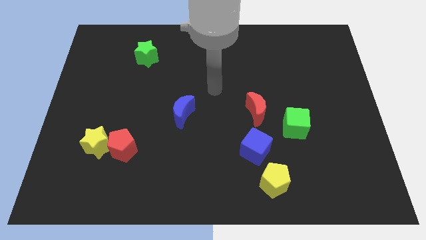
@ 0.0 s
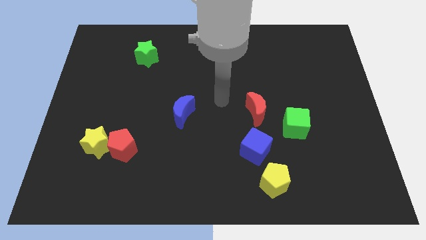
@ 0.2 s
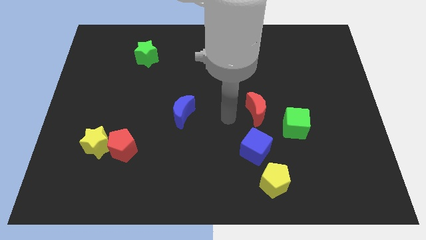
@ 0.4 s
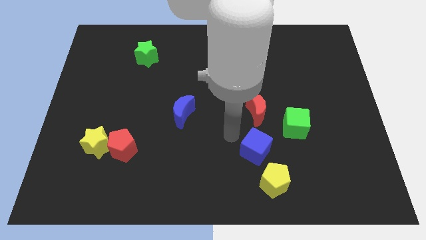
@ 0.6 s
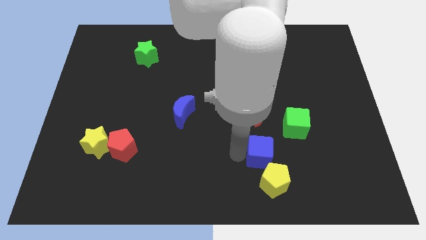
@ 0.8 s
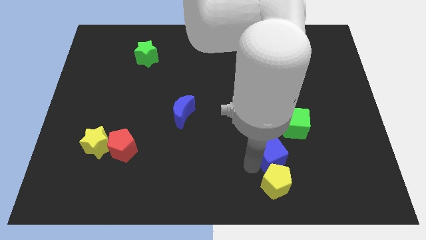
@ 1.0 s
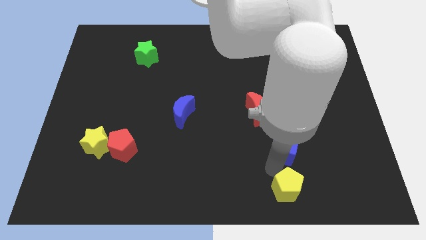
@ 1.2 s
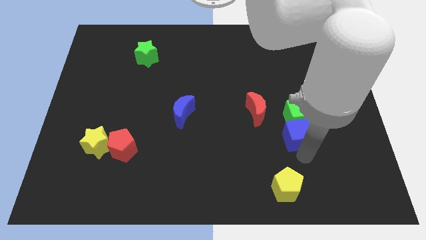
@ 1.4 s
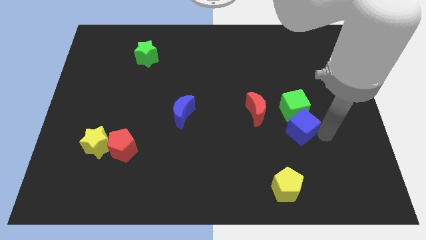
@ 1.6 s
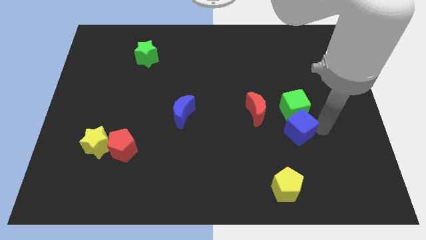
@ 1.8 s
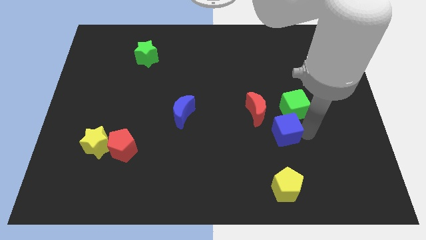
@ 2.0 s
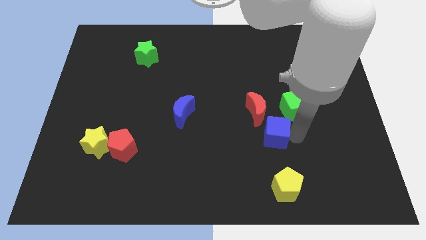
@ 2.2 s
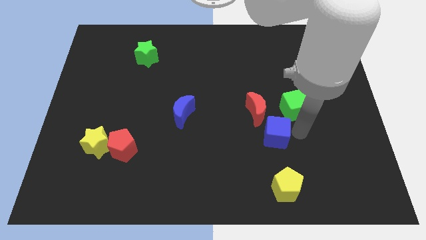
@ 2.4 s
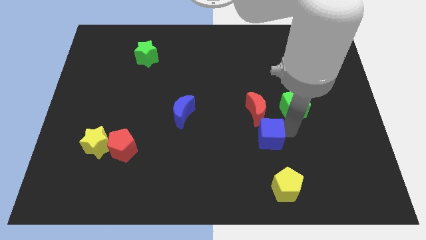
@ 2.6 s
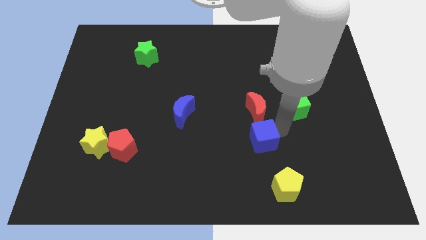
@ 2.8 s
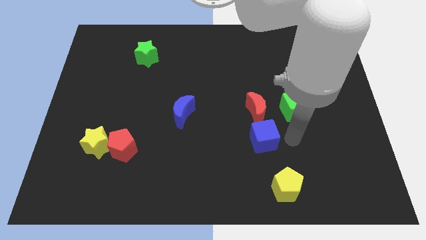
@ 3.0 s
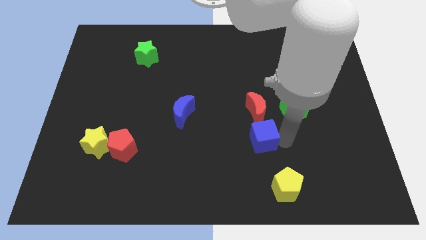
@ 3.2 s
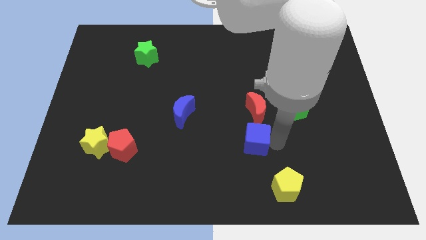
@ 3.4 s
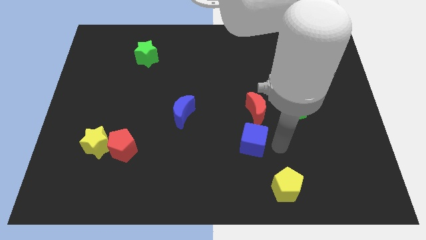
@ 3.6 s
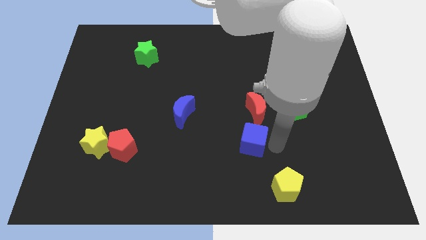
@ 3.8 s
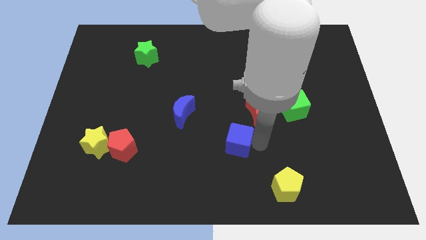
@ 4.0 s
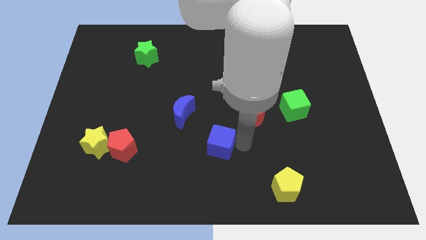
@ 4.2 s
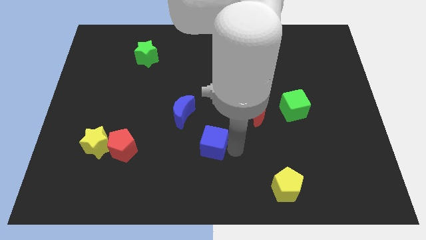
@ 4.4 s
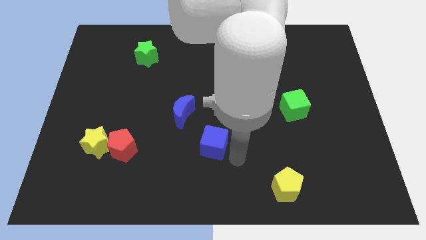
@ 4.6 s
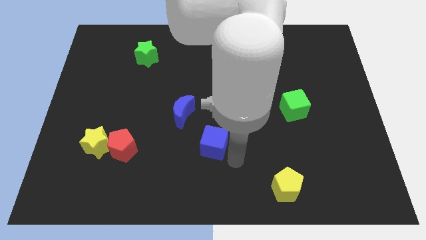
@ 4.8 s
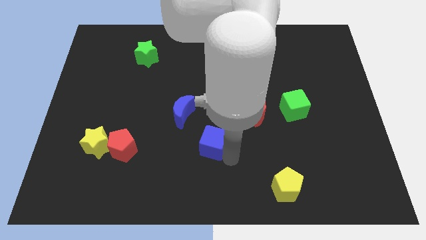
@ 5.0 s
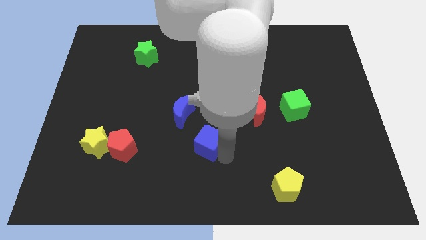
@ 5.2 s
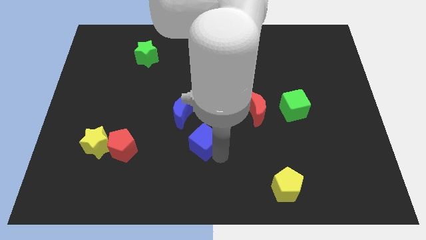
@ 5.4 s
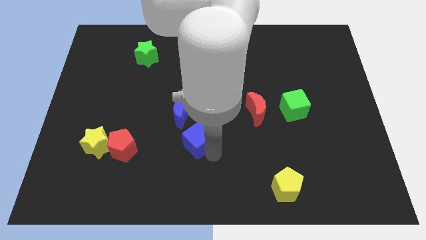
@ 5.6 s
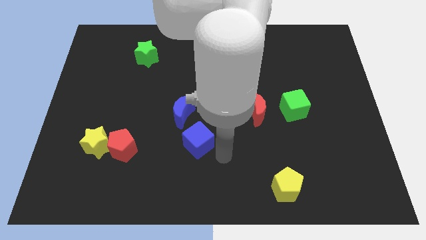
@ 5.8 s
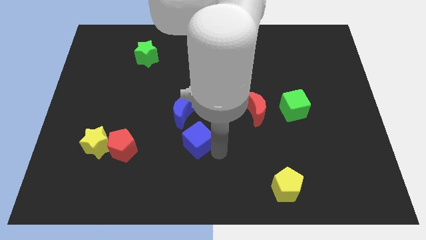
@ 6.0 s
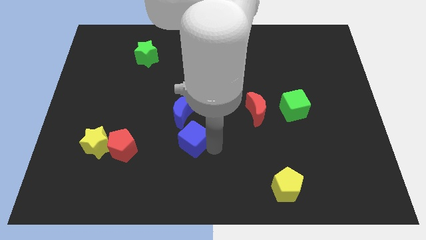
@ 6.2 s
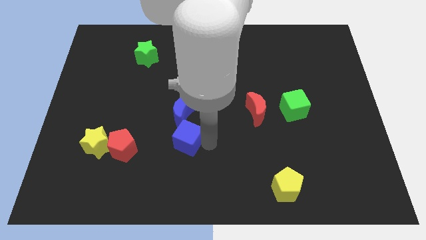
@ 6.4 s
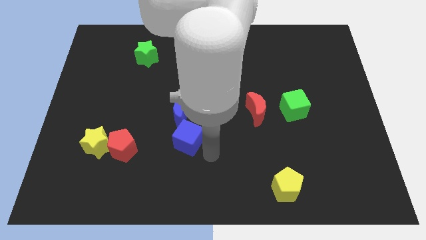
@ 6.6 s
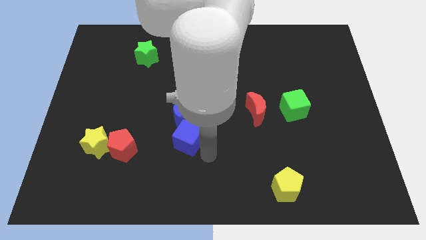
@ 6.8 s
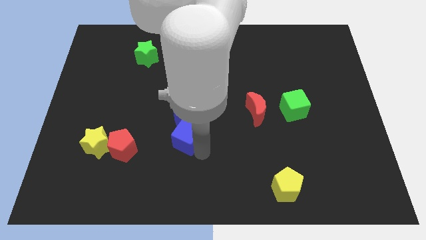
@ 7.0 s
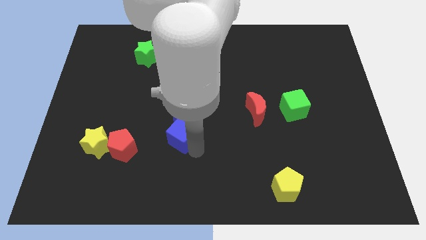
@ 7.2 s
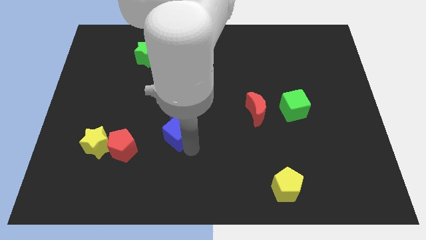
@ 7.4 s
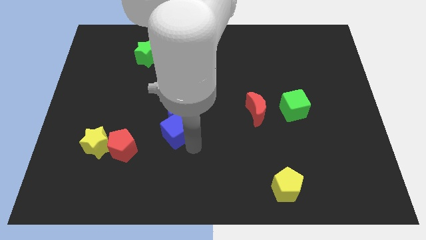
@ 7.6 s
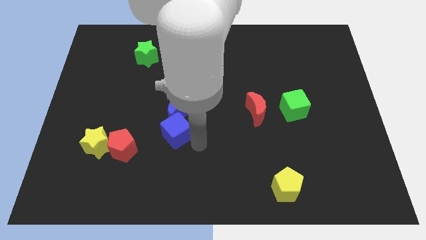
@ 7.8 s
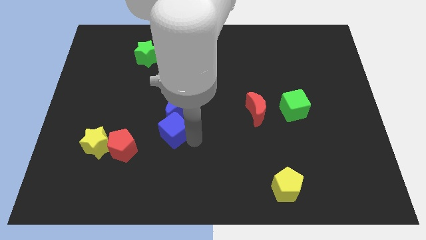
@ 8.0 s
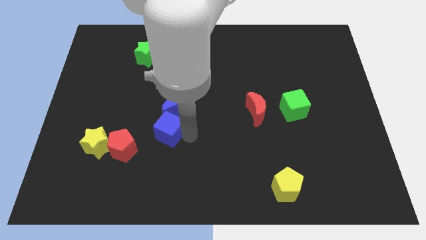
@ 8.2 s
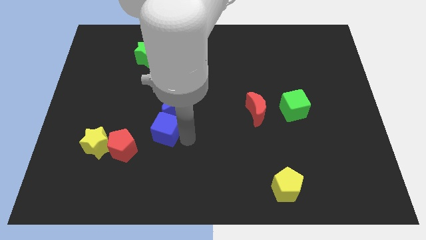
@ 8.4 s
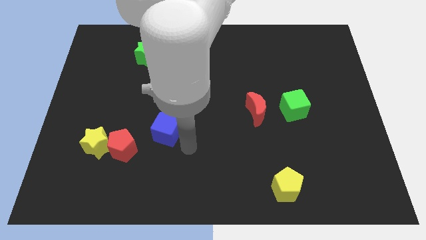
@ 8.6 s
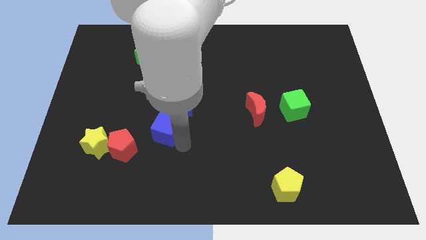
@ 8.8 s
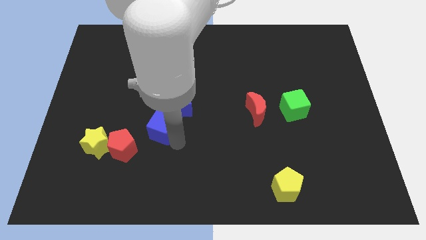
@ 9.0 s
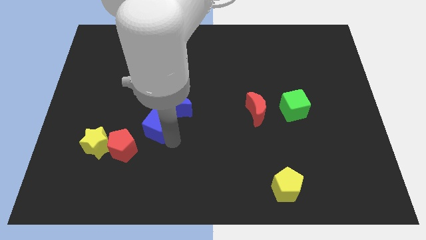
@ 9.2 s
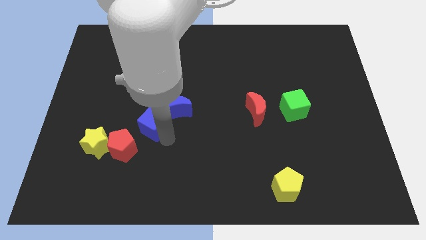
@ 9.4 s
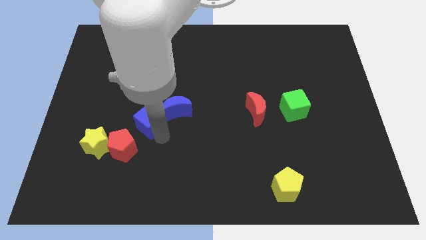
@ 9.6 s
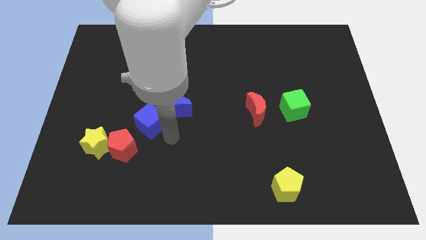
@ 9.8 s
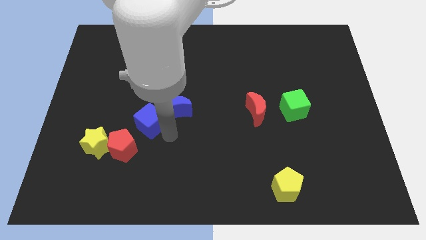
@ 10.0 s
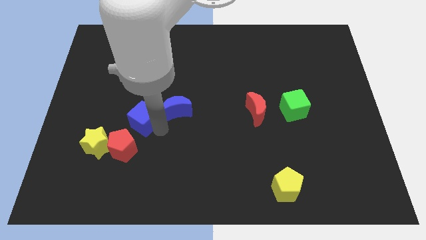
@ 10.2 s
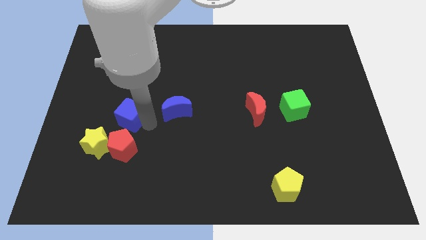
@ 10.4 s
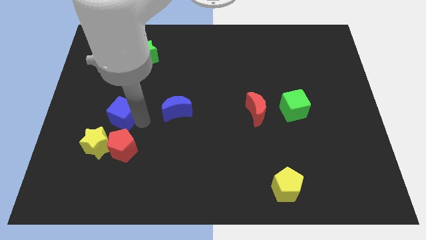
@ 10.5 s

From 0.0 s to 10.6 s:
slide the blue cube above the yellow star

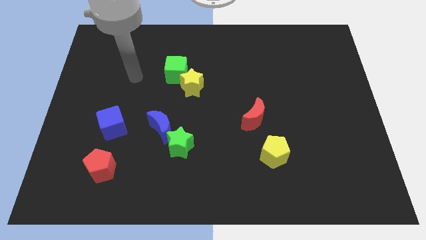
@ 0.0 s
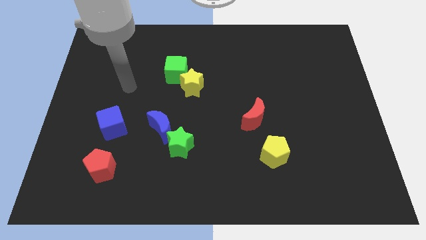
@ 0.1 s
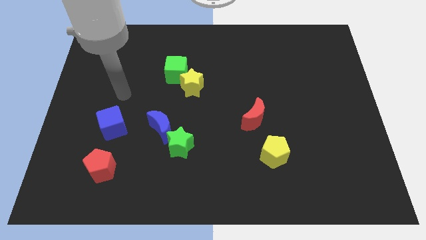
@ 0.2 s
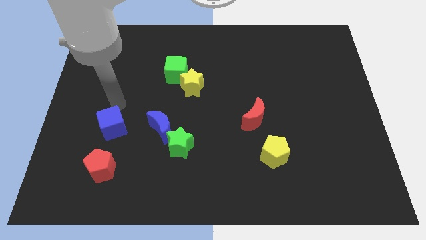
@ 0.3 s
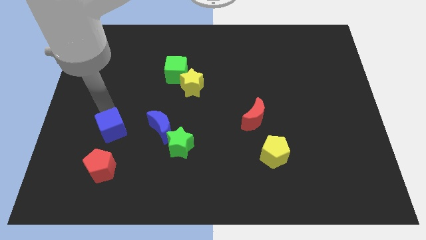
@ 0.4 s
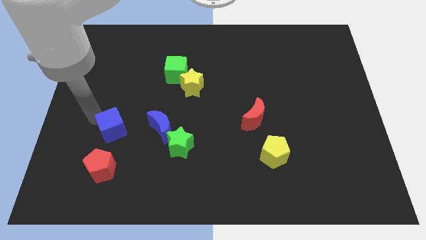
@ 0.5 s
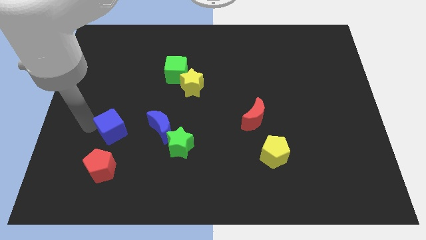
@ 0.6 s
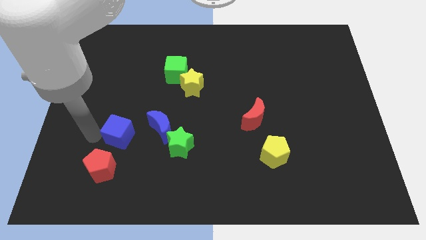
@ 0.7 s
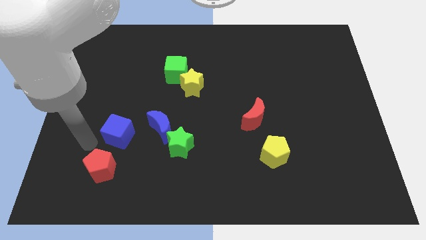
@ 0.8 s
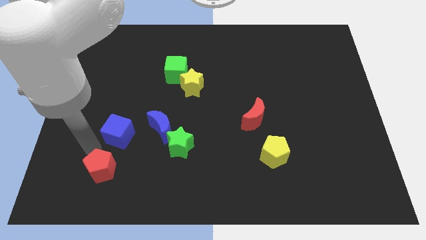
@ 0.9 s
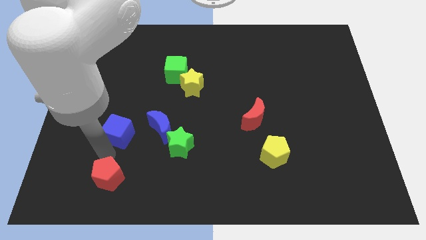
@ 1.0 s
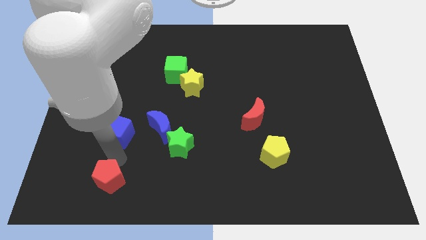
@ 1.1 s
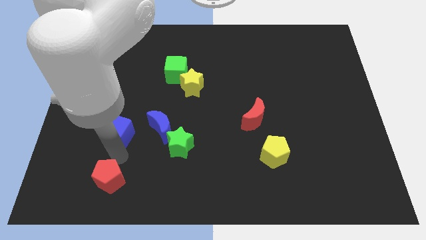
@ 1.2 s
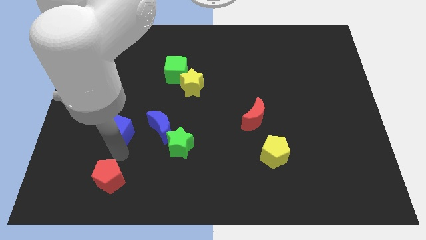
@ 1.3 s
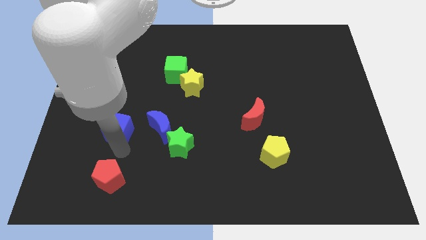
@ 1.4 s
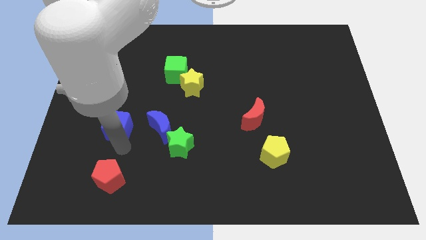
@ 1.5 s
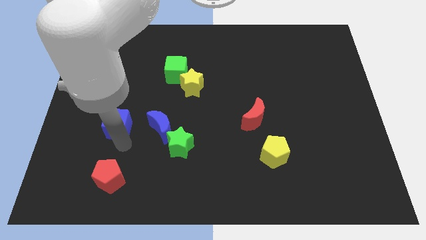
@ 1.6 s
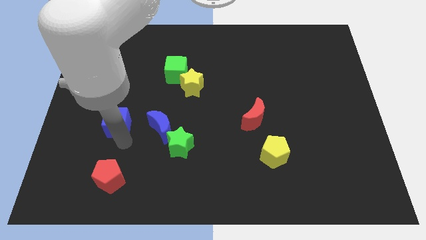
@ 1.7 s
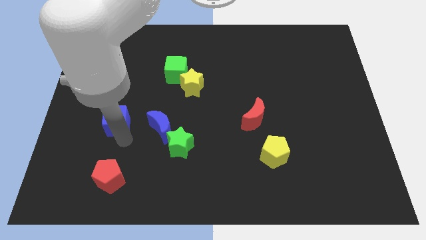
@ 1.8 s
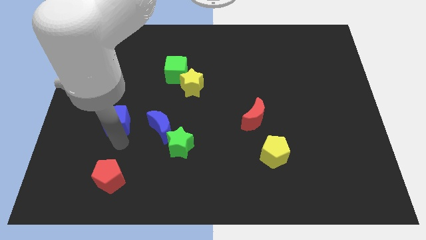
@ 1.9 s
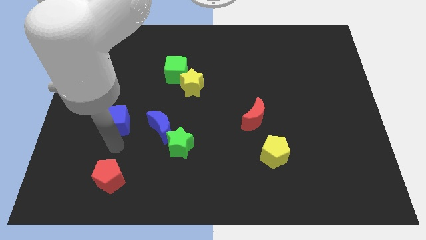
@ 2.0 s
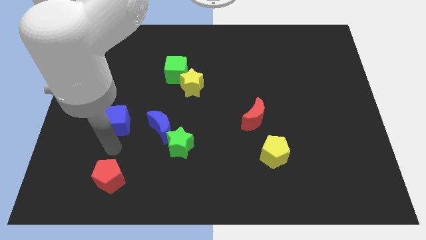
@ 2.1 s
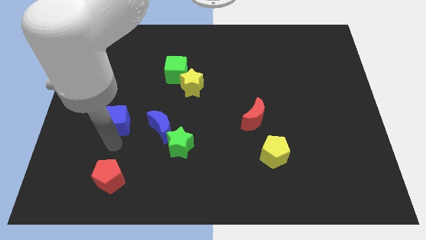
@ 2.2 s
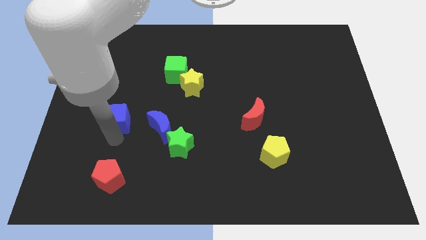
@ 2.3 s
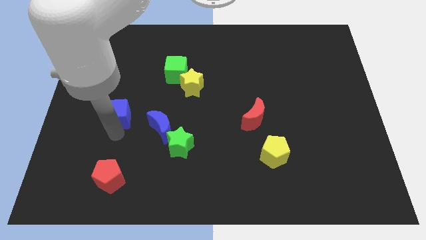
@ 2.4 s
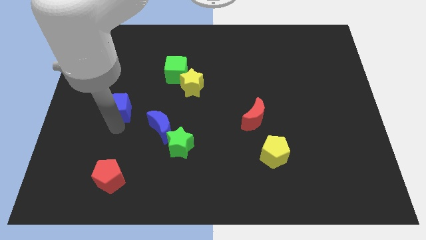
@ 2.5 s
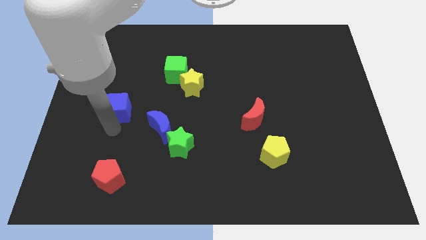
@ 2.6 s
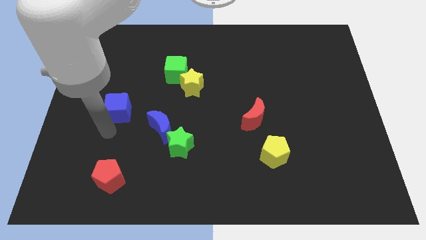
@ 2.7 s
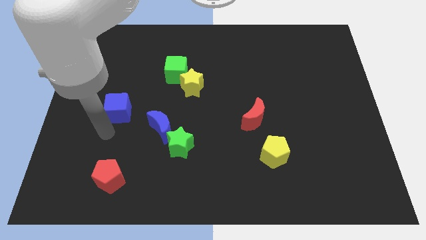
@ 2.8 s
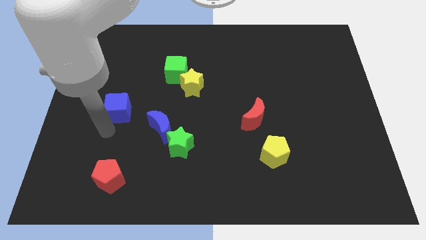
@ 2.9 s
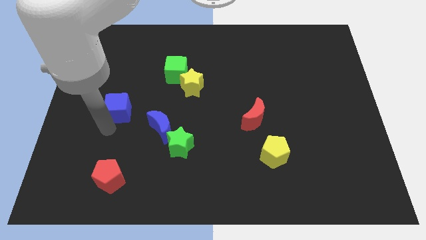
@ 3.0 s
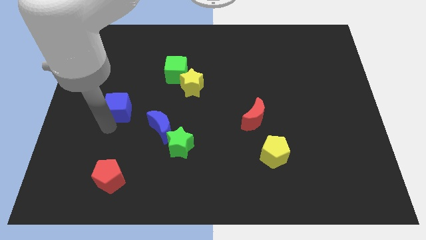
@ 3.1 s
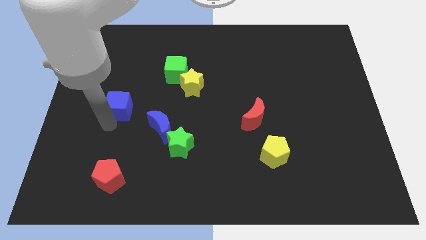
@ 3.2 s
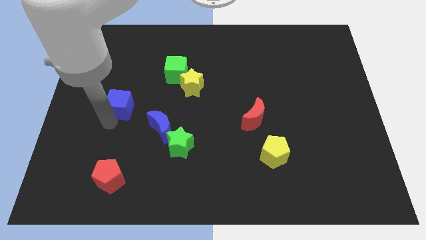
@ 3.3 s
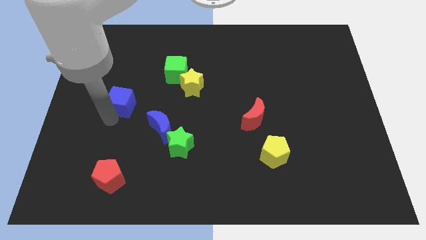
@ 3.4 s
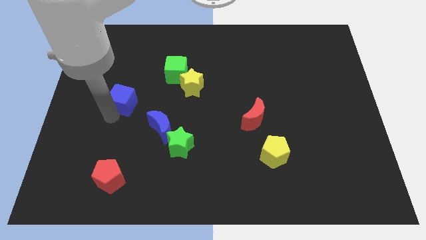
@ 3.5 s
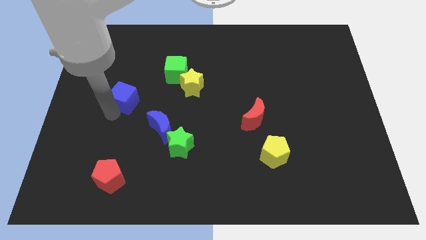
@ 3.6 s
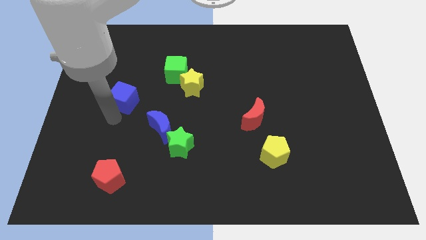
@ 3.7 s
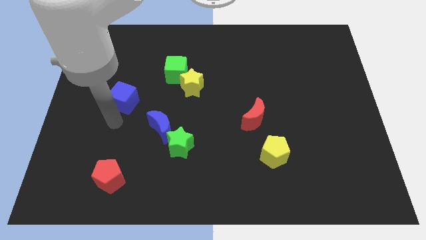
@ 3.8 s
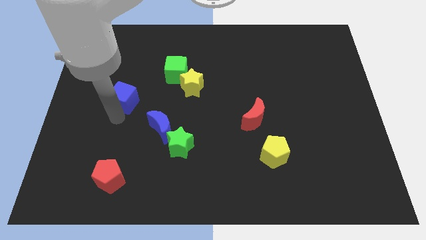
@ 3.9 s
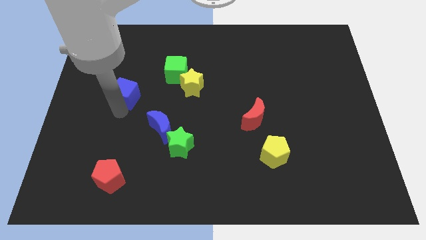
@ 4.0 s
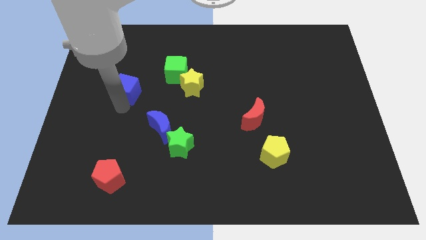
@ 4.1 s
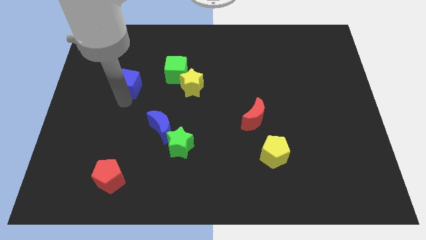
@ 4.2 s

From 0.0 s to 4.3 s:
move the blue cube left of the green cube
